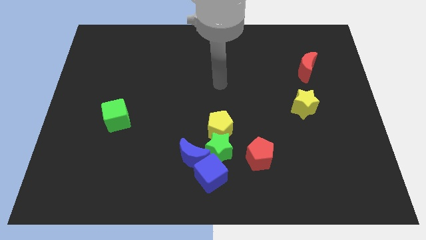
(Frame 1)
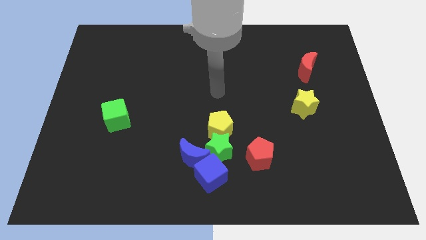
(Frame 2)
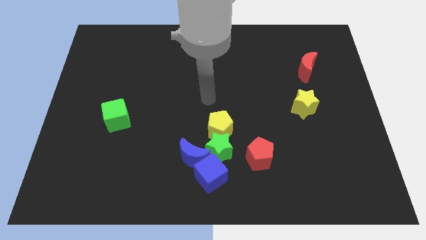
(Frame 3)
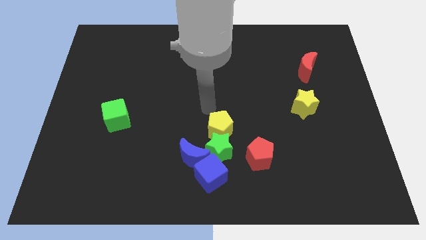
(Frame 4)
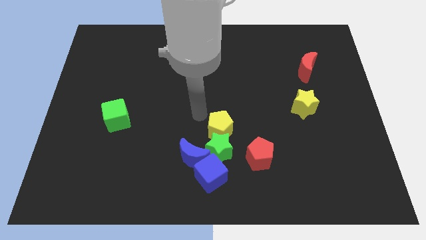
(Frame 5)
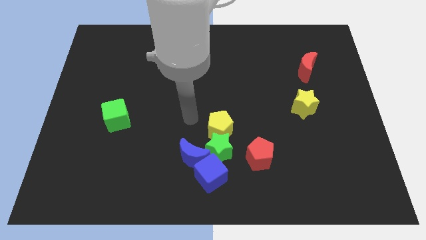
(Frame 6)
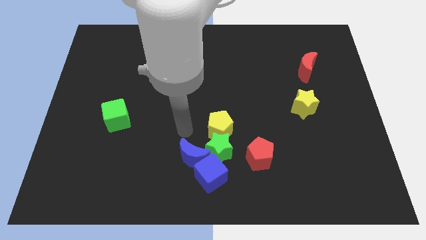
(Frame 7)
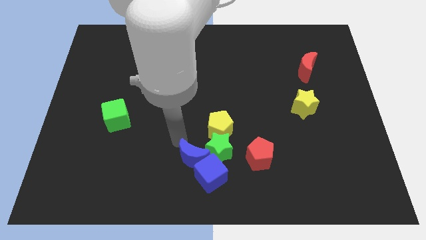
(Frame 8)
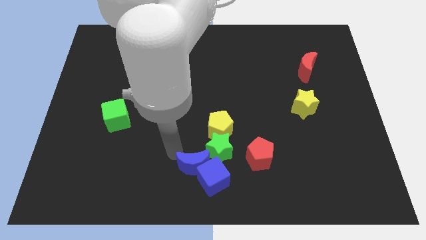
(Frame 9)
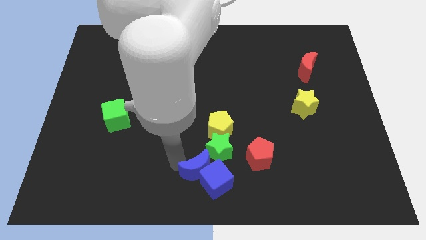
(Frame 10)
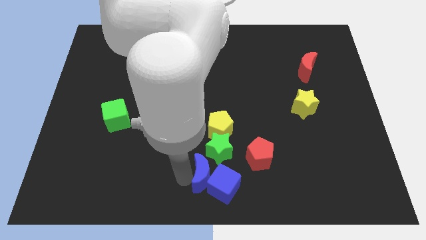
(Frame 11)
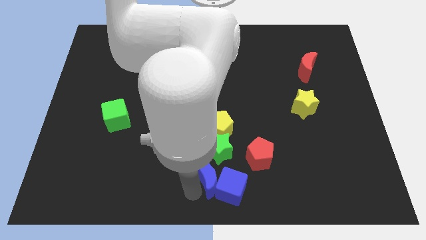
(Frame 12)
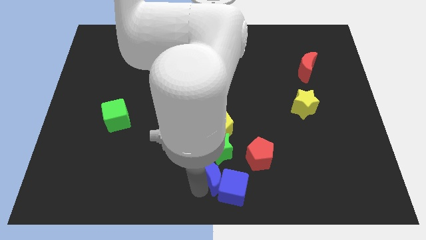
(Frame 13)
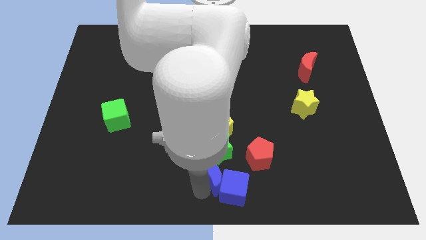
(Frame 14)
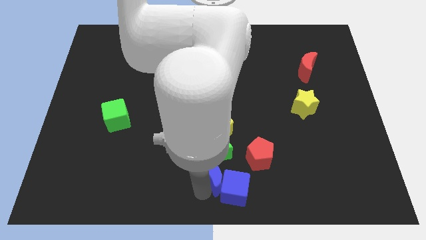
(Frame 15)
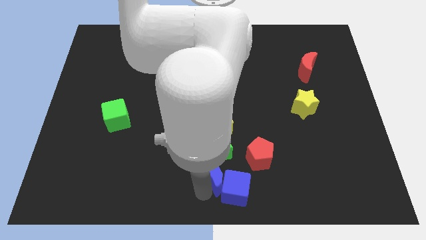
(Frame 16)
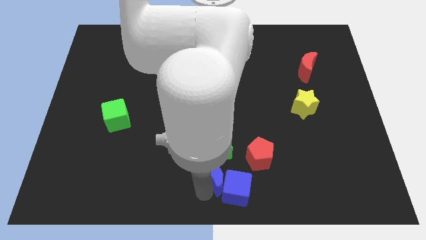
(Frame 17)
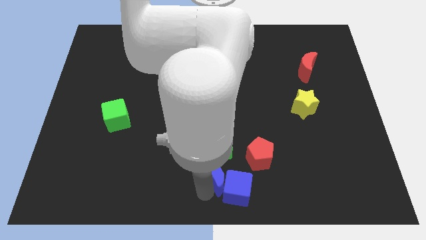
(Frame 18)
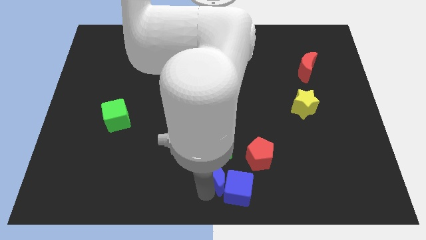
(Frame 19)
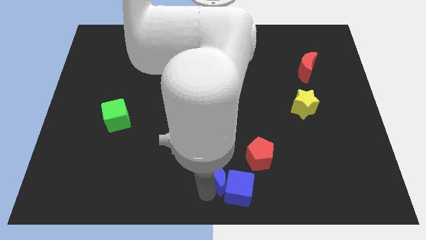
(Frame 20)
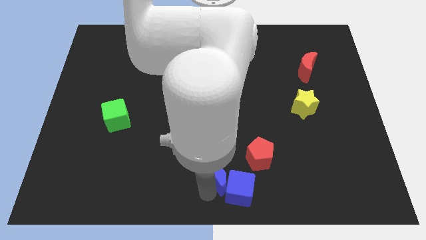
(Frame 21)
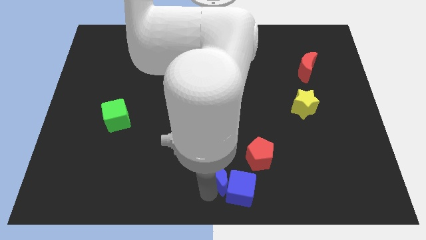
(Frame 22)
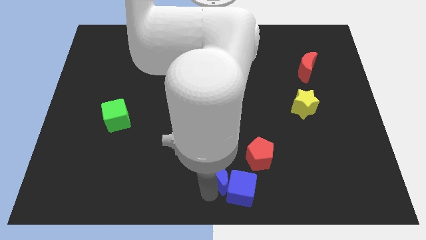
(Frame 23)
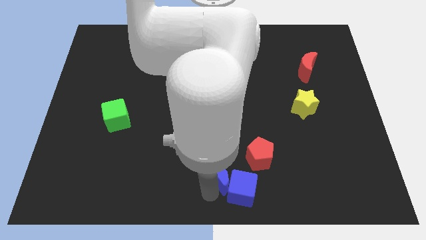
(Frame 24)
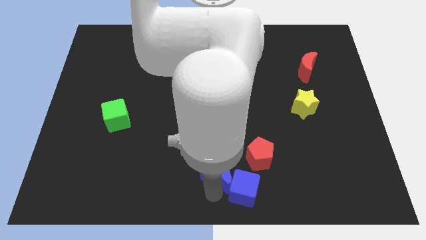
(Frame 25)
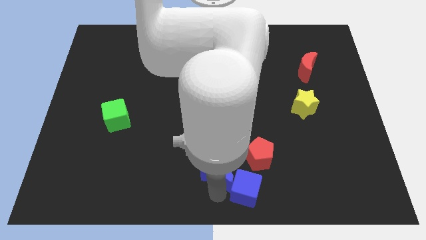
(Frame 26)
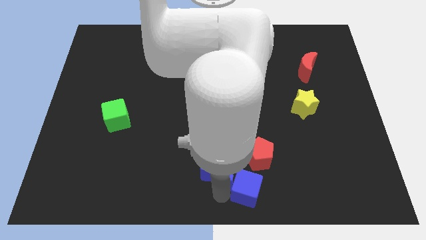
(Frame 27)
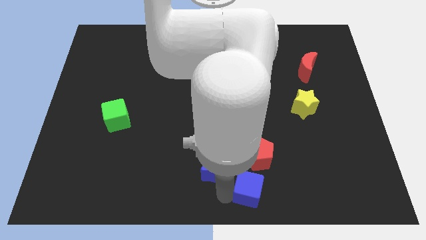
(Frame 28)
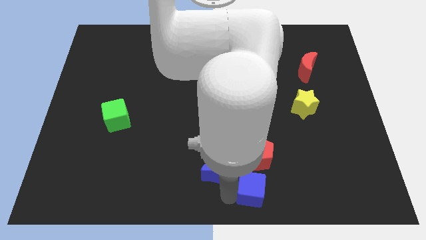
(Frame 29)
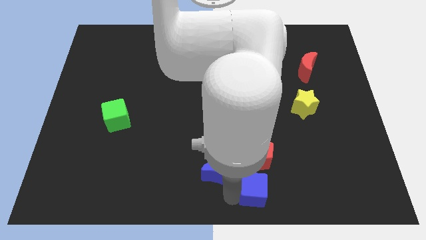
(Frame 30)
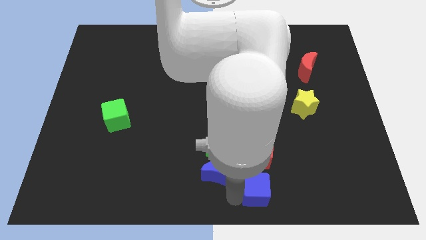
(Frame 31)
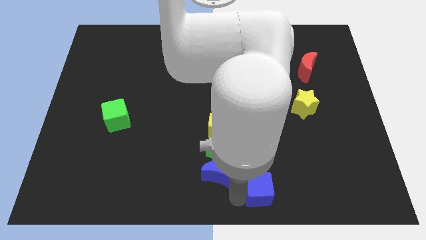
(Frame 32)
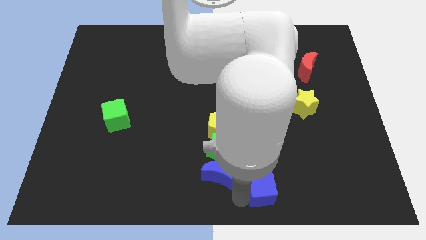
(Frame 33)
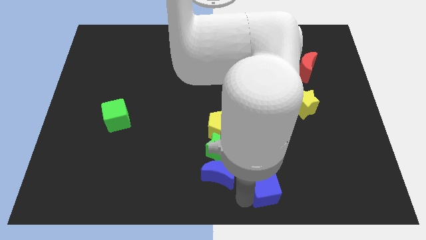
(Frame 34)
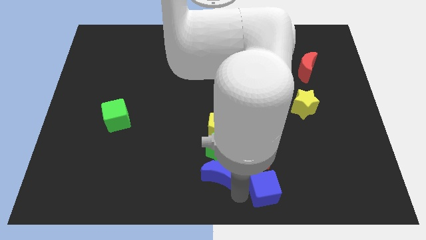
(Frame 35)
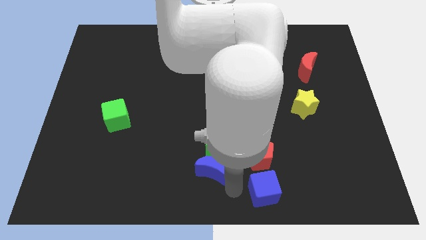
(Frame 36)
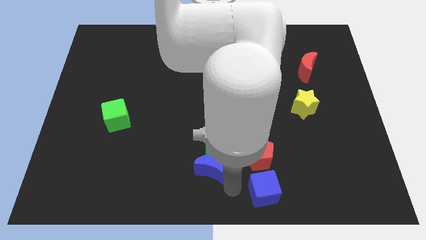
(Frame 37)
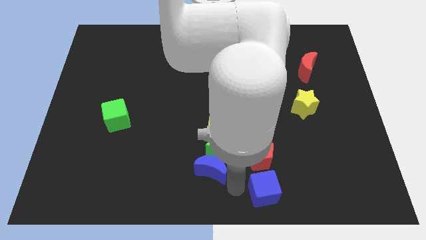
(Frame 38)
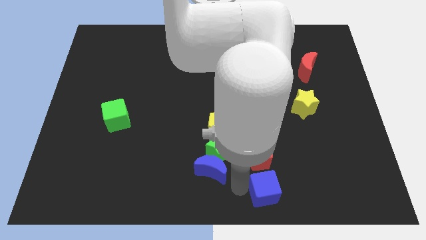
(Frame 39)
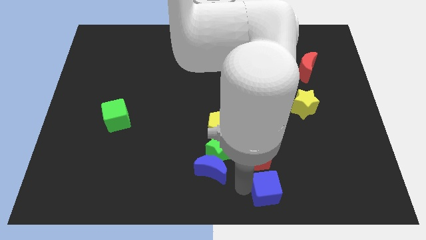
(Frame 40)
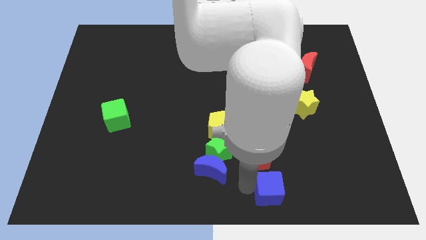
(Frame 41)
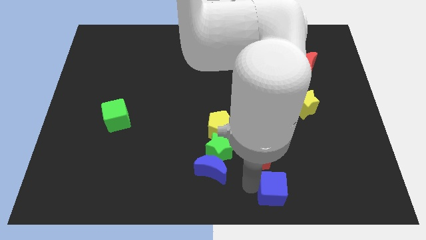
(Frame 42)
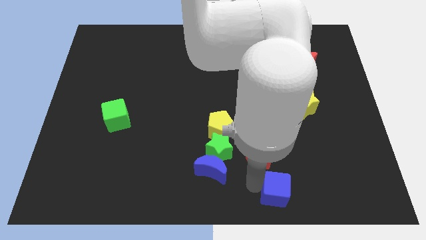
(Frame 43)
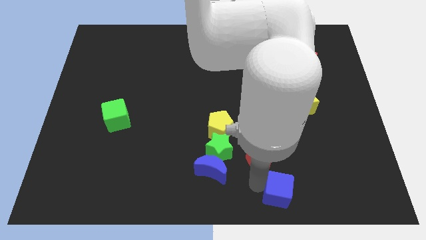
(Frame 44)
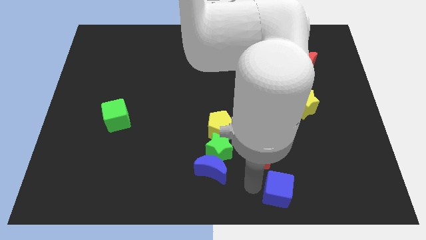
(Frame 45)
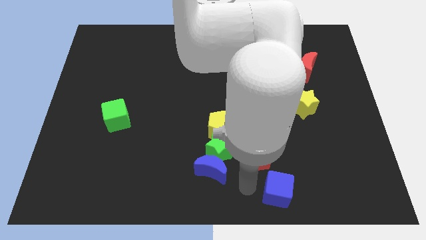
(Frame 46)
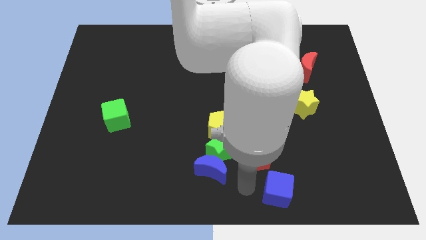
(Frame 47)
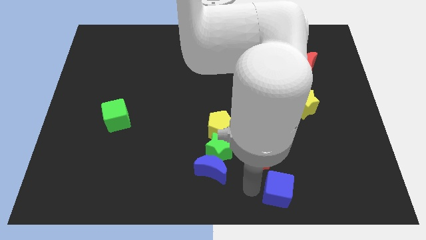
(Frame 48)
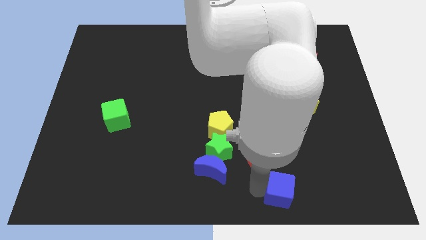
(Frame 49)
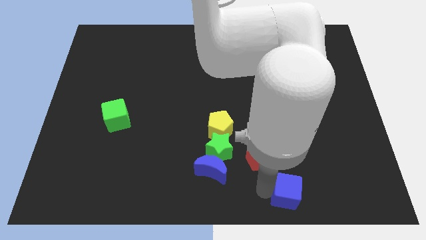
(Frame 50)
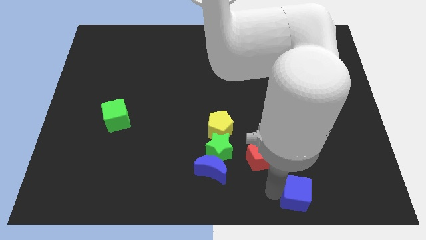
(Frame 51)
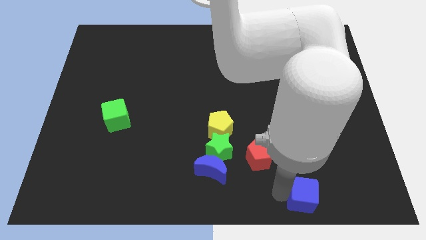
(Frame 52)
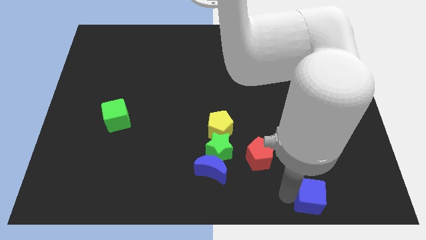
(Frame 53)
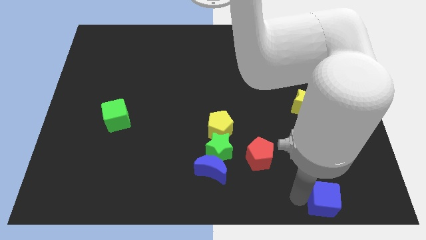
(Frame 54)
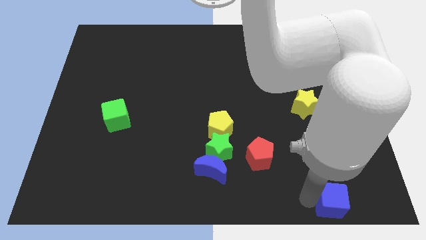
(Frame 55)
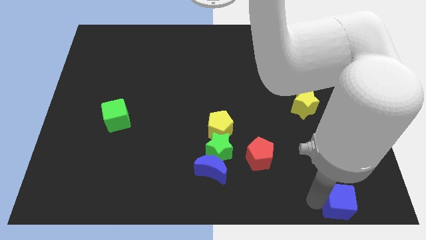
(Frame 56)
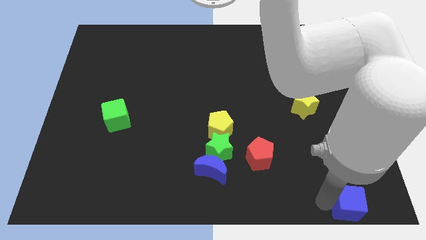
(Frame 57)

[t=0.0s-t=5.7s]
put the blue cube to the bottom right corner

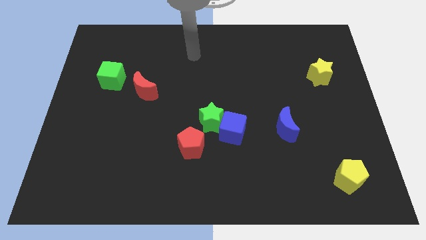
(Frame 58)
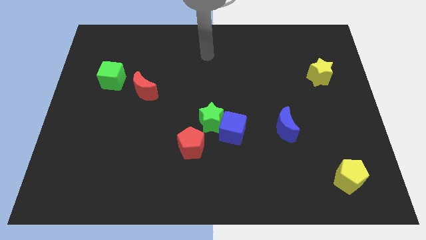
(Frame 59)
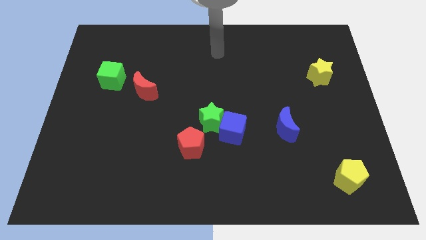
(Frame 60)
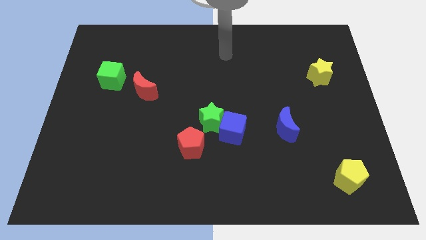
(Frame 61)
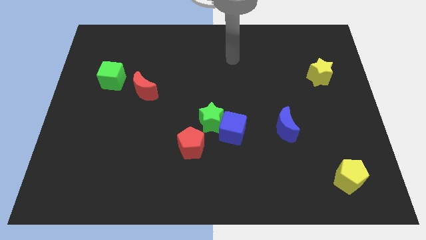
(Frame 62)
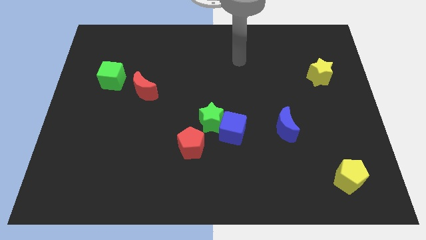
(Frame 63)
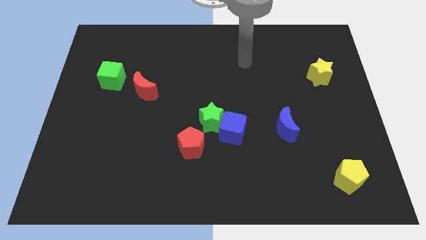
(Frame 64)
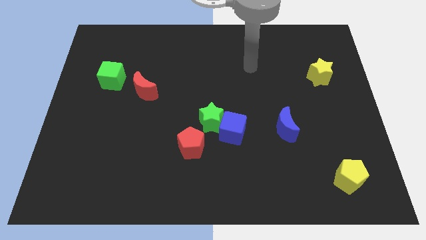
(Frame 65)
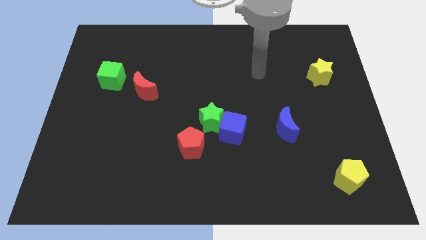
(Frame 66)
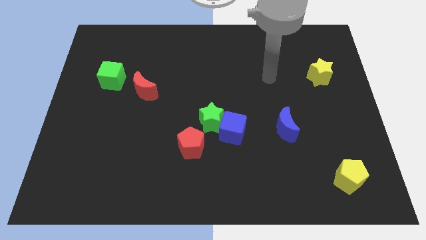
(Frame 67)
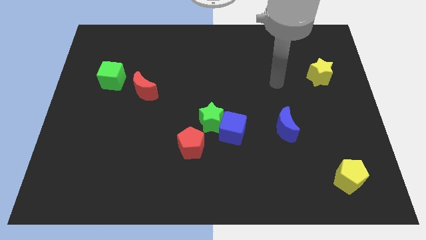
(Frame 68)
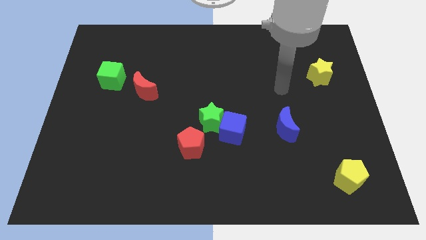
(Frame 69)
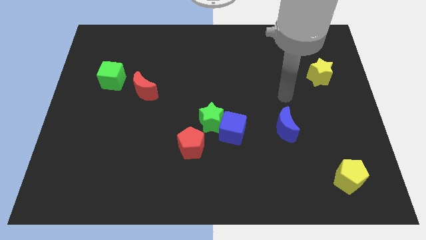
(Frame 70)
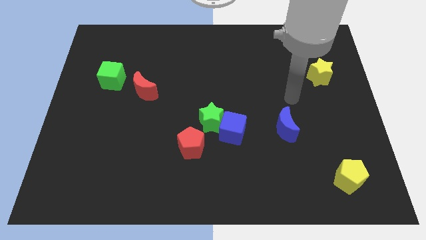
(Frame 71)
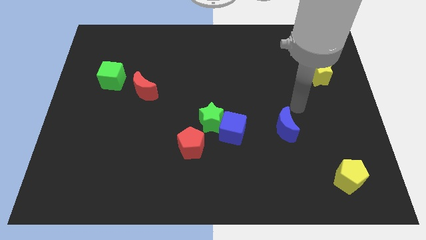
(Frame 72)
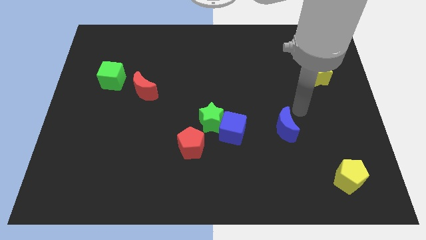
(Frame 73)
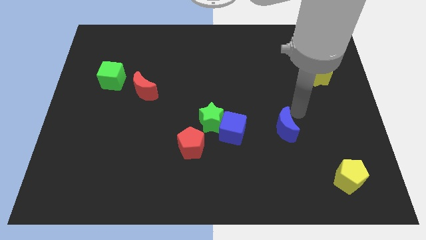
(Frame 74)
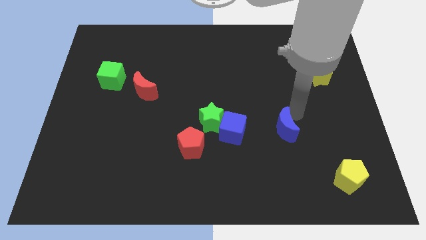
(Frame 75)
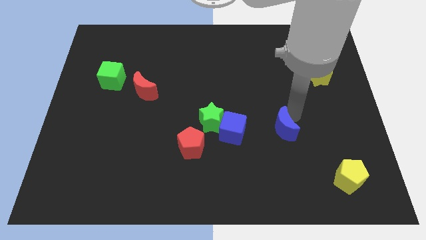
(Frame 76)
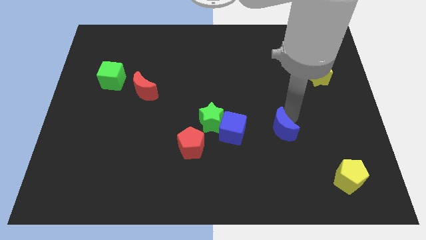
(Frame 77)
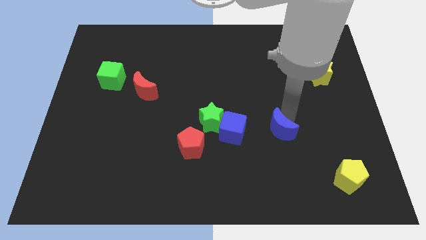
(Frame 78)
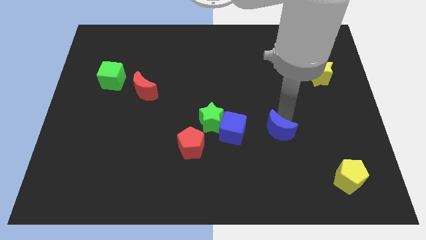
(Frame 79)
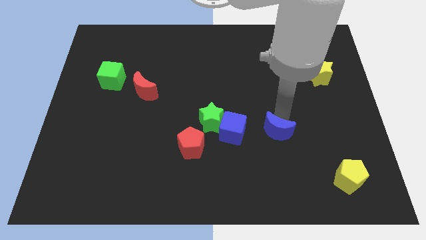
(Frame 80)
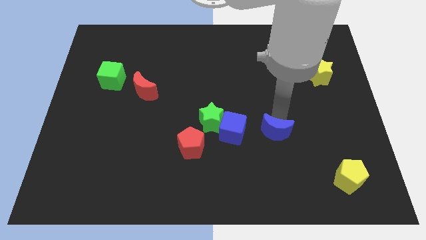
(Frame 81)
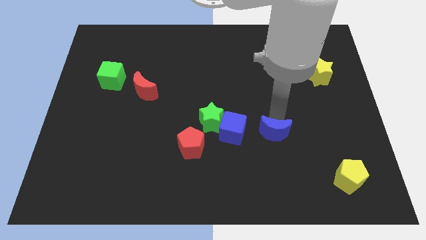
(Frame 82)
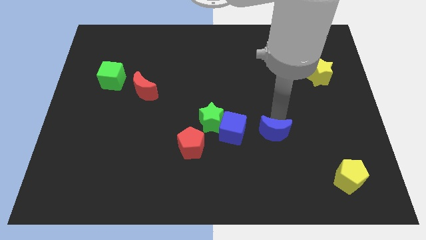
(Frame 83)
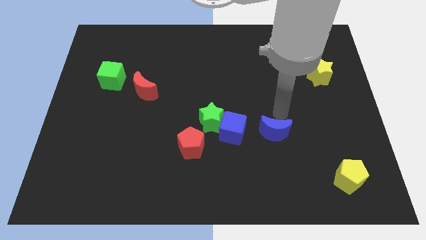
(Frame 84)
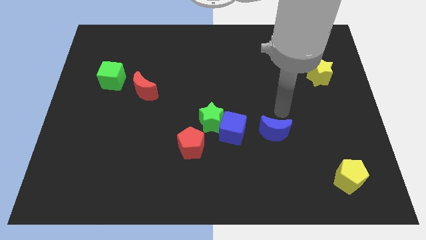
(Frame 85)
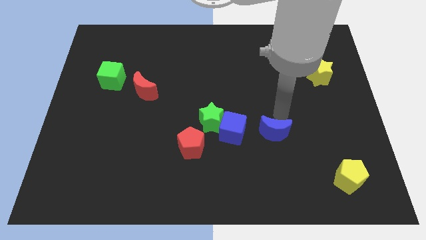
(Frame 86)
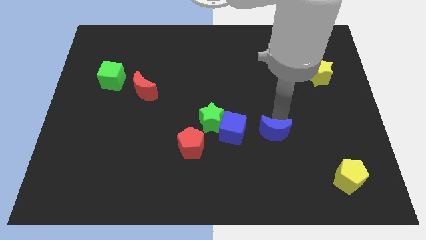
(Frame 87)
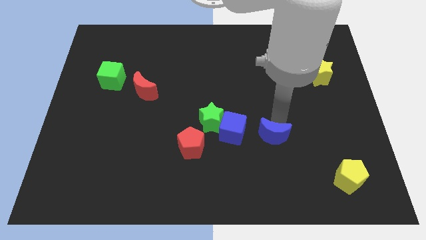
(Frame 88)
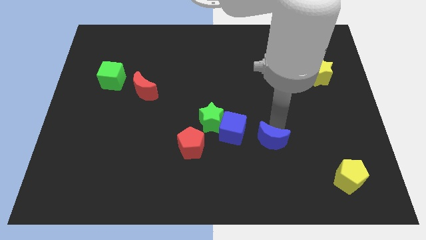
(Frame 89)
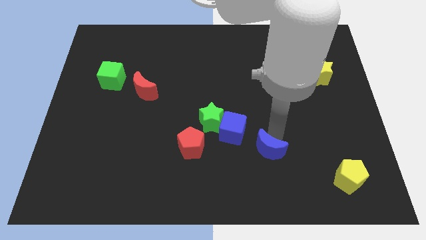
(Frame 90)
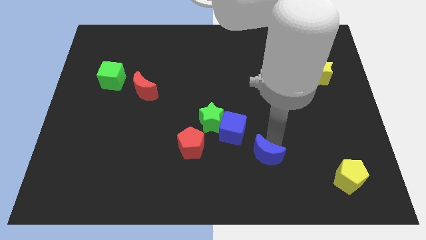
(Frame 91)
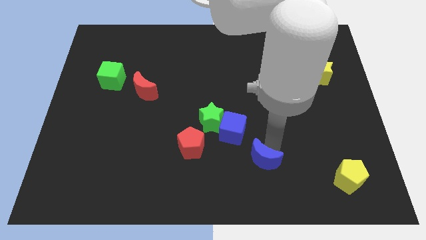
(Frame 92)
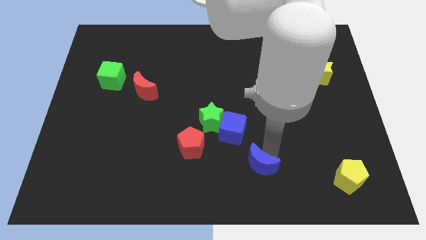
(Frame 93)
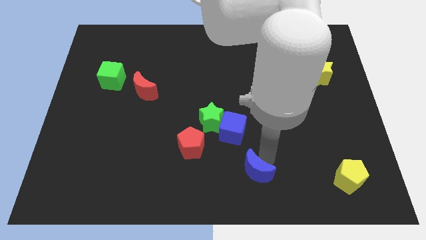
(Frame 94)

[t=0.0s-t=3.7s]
slide the blue moon to the bottom side
